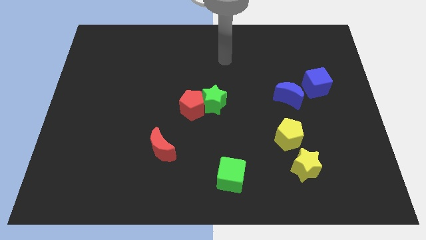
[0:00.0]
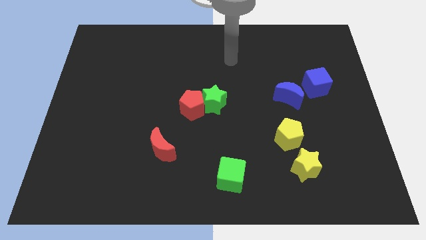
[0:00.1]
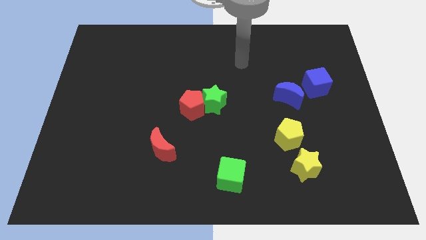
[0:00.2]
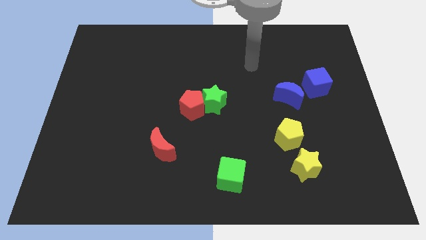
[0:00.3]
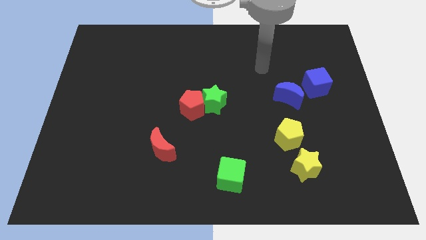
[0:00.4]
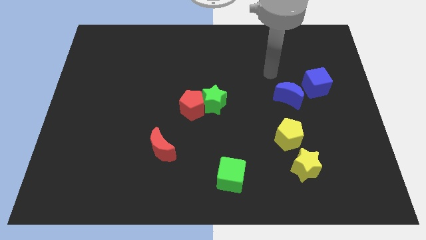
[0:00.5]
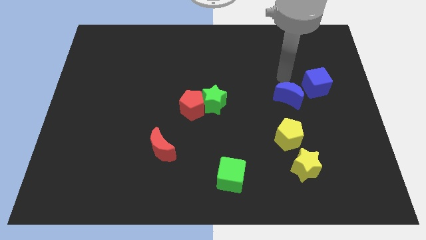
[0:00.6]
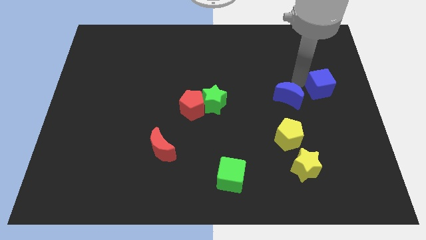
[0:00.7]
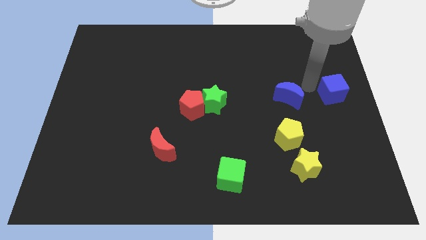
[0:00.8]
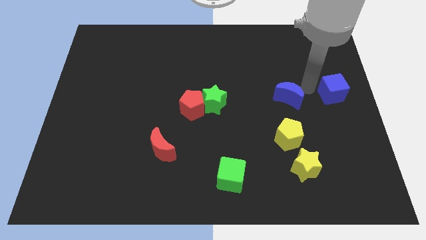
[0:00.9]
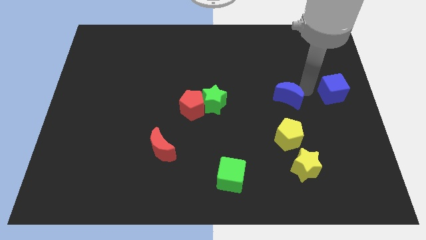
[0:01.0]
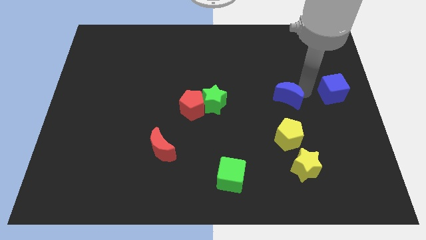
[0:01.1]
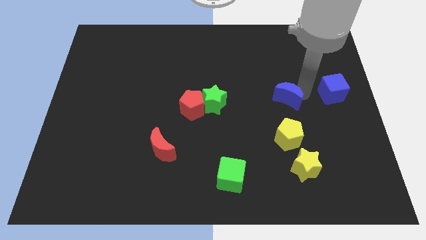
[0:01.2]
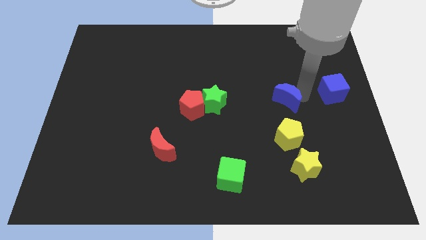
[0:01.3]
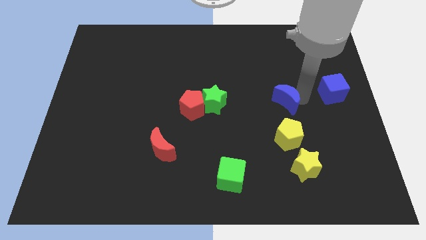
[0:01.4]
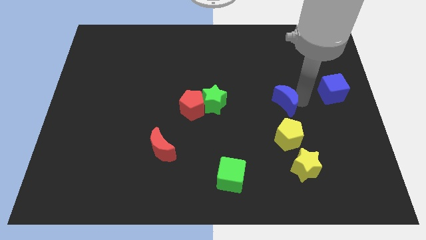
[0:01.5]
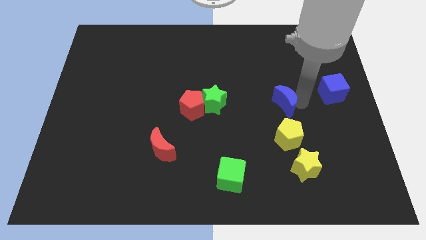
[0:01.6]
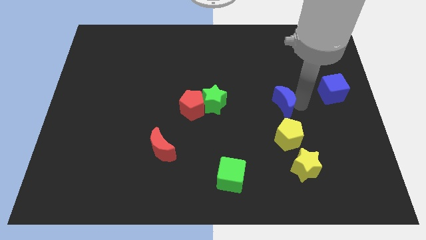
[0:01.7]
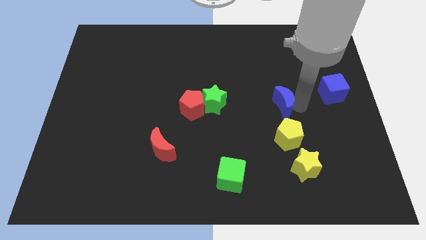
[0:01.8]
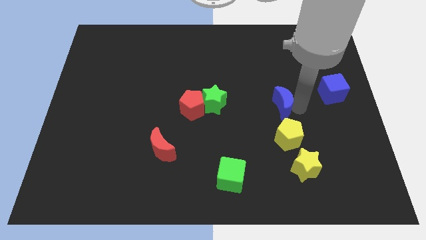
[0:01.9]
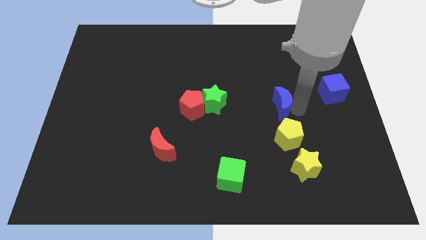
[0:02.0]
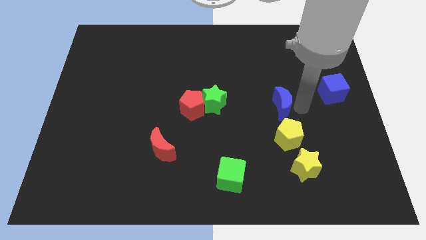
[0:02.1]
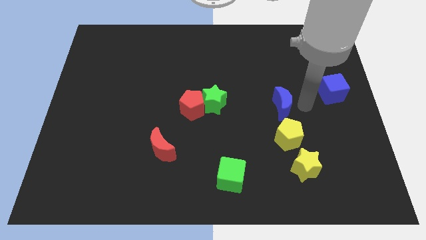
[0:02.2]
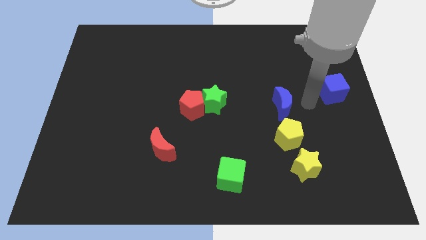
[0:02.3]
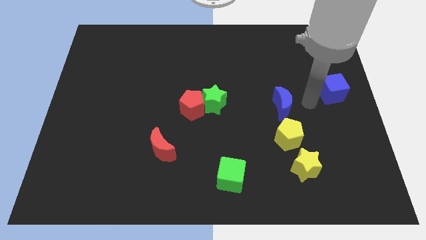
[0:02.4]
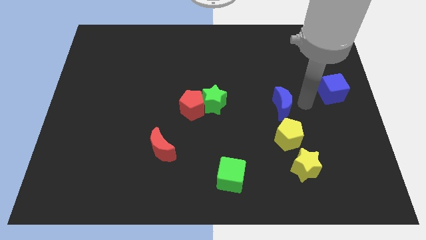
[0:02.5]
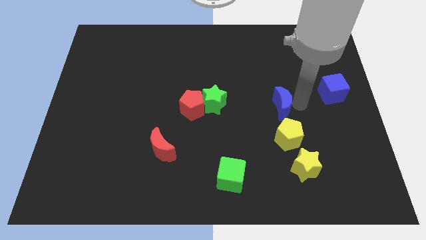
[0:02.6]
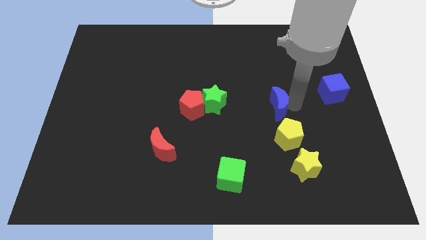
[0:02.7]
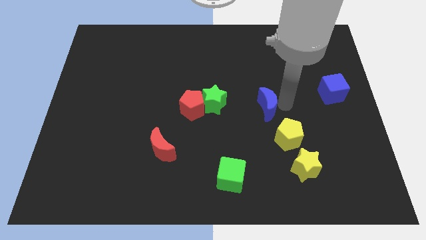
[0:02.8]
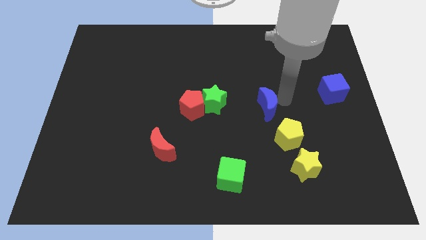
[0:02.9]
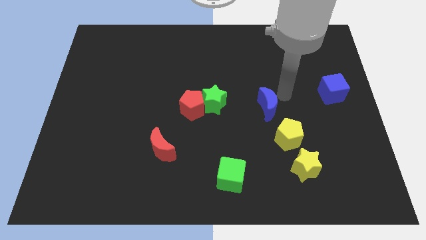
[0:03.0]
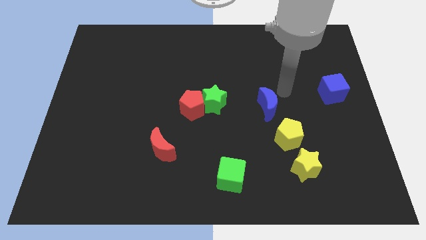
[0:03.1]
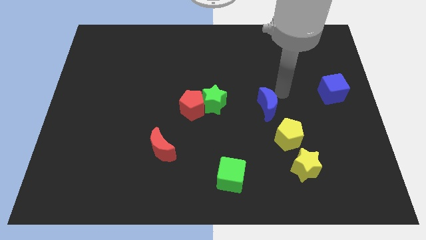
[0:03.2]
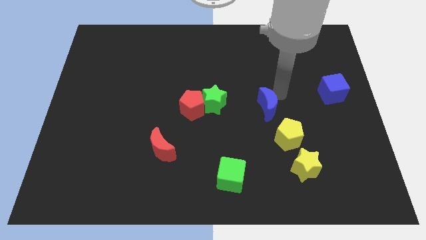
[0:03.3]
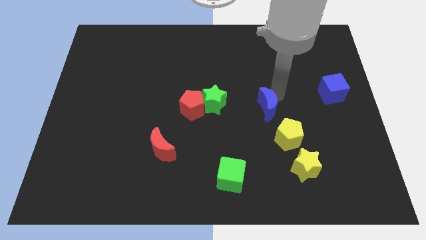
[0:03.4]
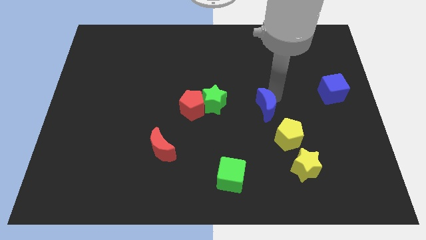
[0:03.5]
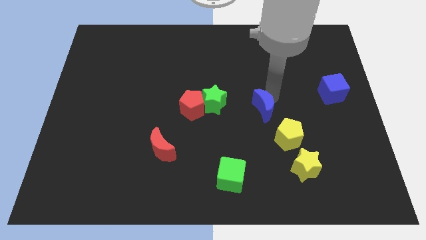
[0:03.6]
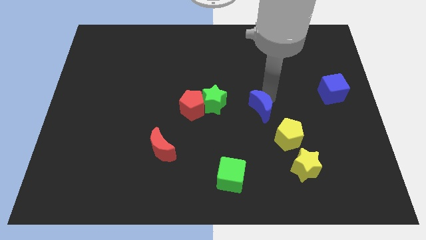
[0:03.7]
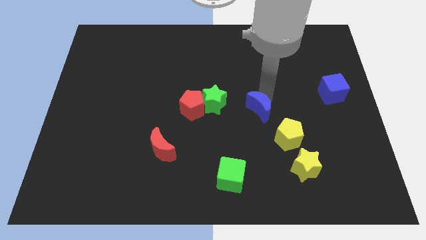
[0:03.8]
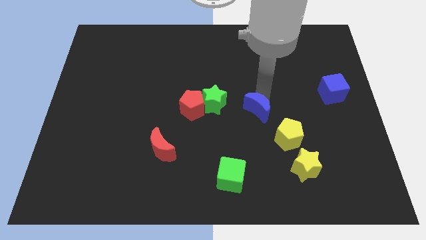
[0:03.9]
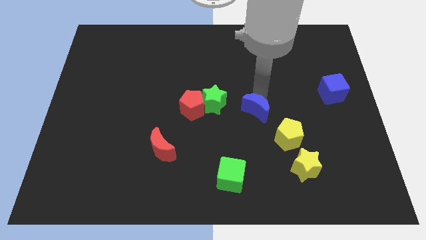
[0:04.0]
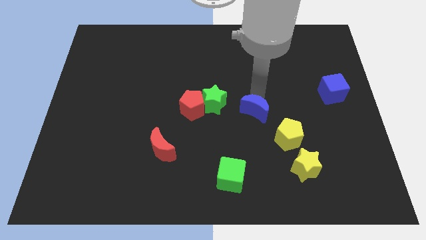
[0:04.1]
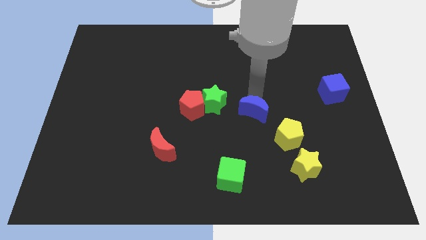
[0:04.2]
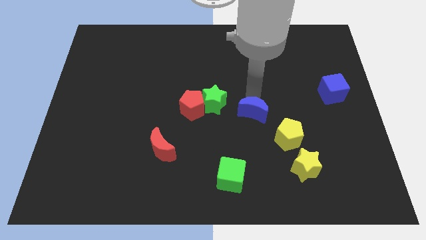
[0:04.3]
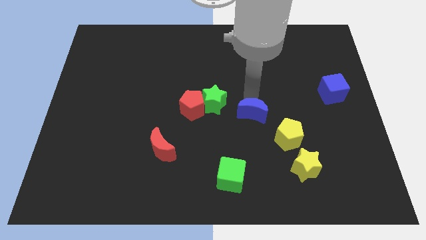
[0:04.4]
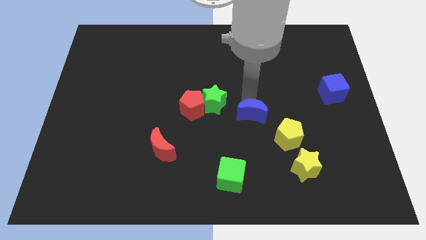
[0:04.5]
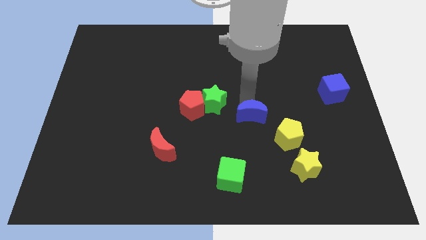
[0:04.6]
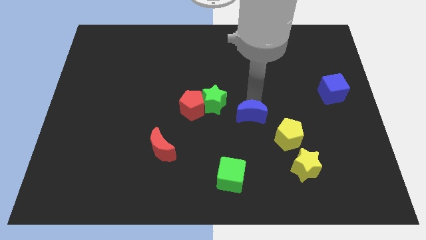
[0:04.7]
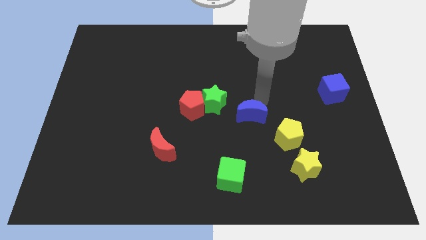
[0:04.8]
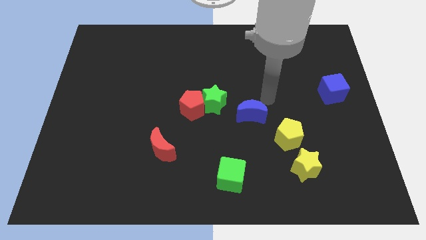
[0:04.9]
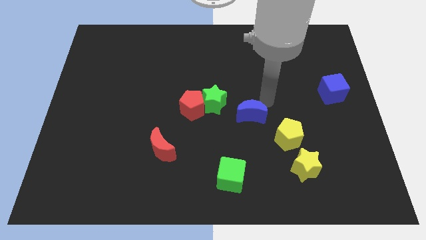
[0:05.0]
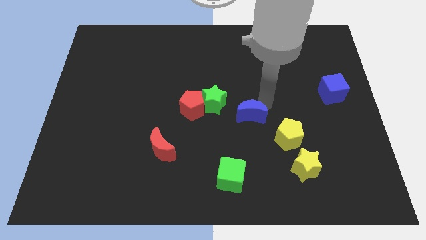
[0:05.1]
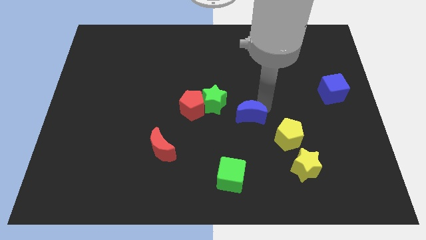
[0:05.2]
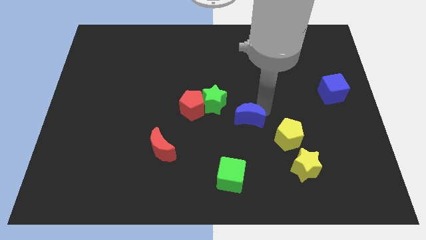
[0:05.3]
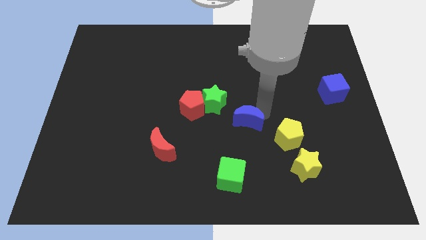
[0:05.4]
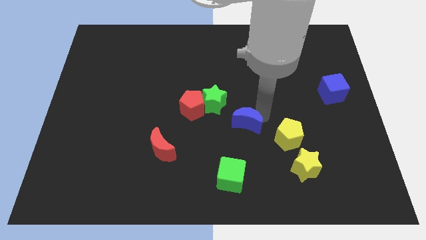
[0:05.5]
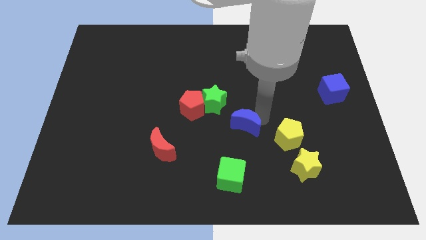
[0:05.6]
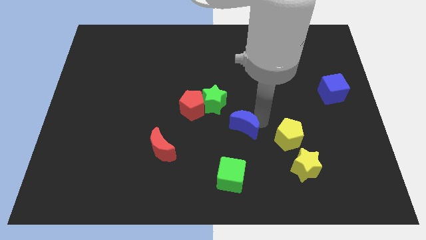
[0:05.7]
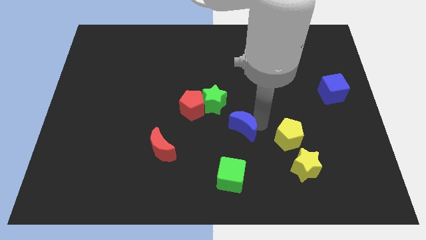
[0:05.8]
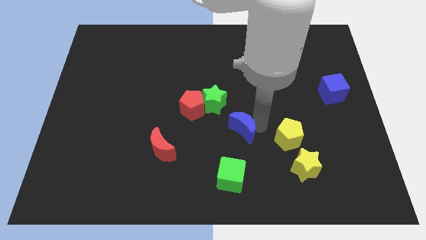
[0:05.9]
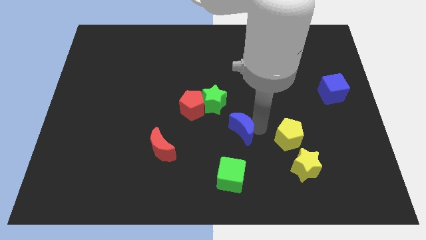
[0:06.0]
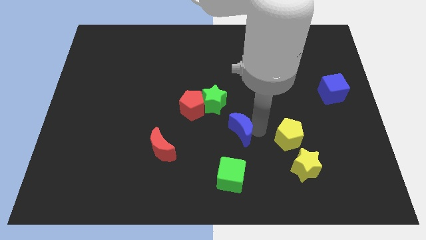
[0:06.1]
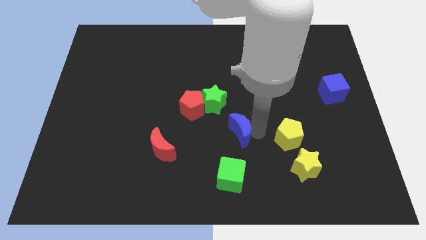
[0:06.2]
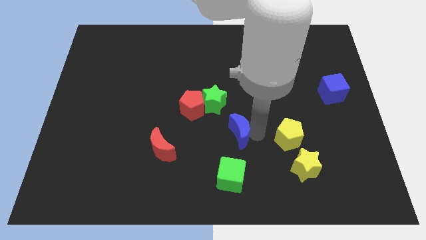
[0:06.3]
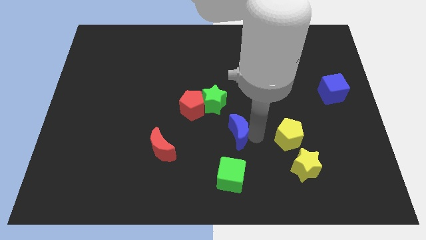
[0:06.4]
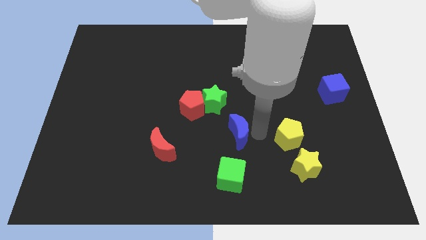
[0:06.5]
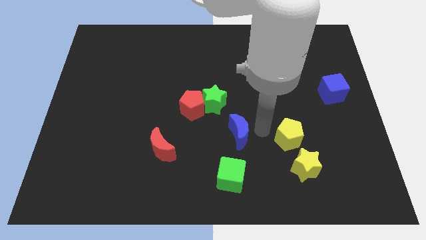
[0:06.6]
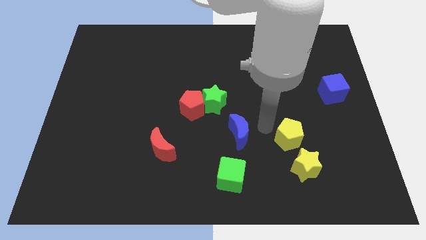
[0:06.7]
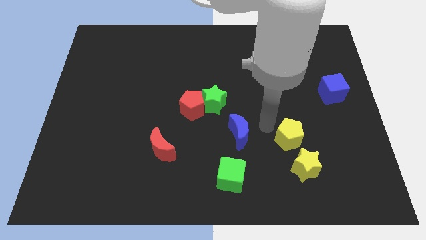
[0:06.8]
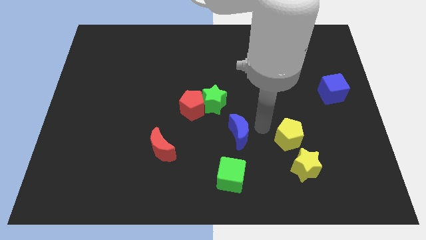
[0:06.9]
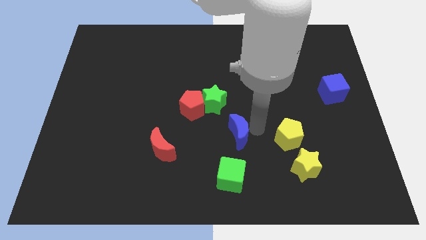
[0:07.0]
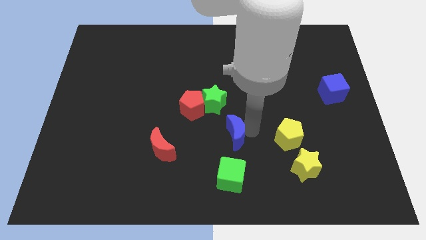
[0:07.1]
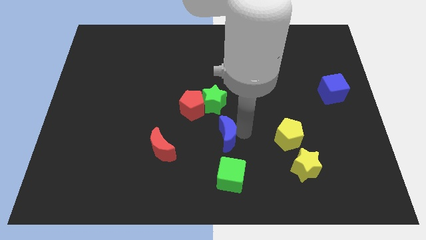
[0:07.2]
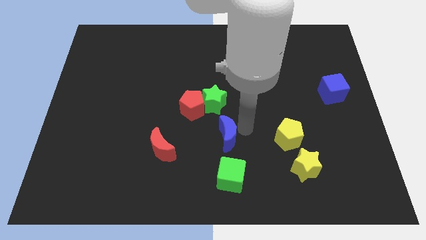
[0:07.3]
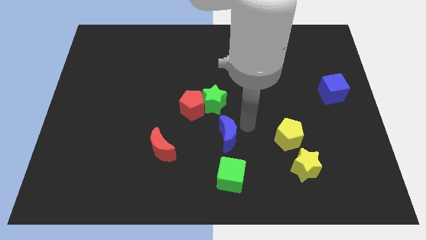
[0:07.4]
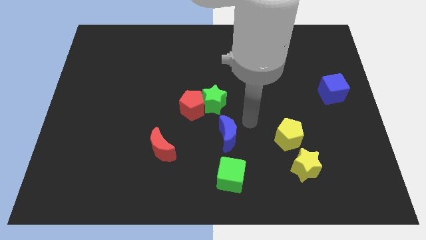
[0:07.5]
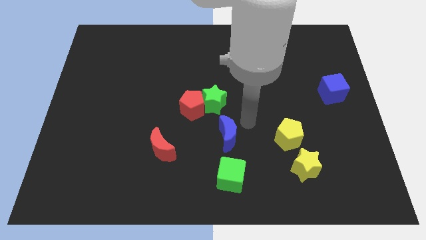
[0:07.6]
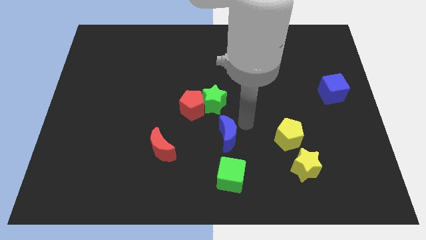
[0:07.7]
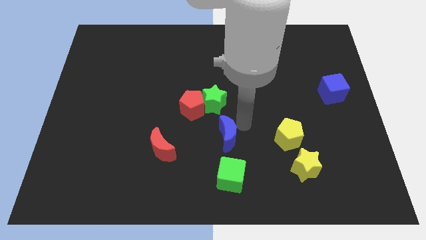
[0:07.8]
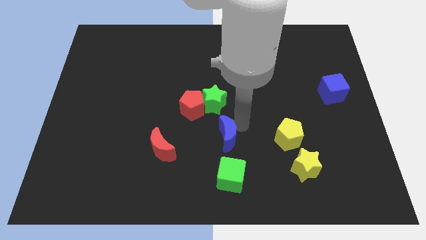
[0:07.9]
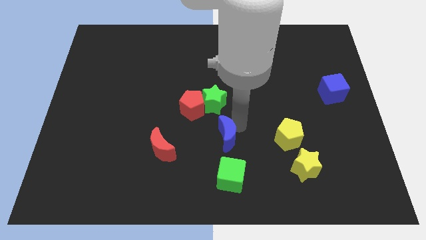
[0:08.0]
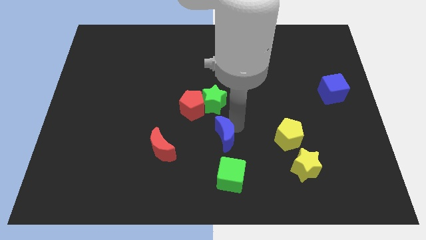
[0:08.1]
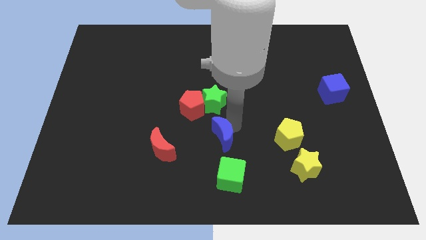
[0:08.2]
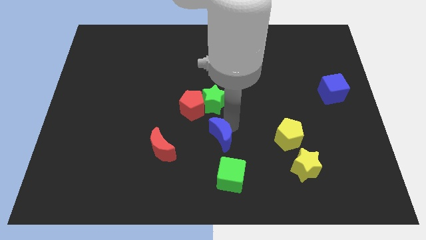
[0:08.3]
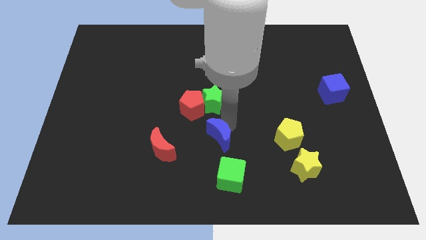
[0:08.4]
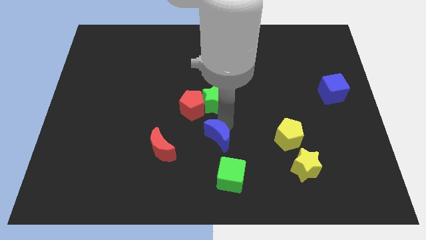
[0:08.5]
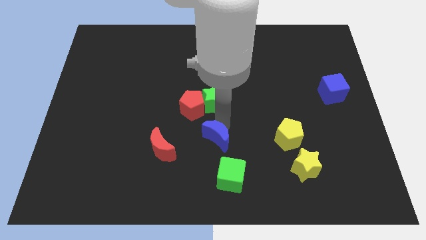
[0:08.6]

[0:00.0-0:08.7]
slide the blue moon down and to the left
